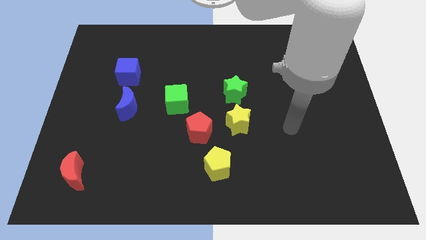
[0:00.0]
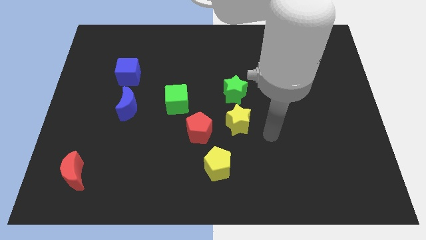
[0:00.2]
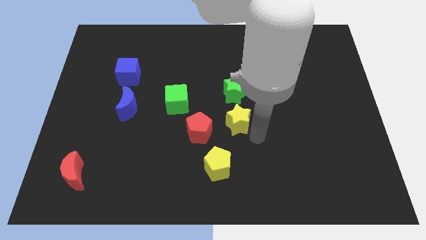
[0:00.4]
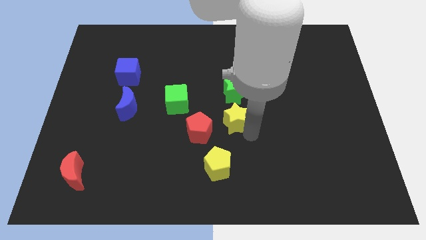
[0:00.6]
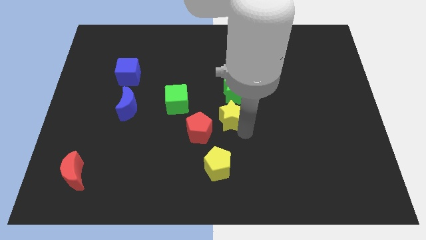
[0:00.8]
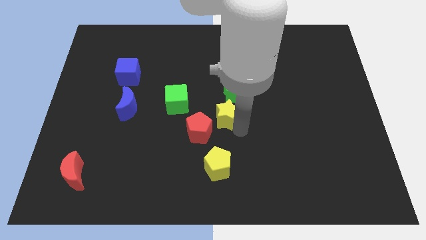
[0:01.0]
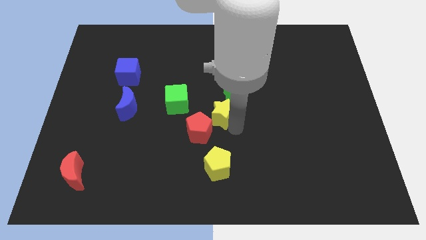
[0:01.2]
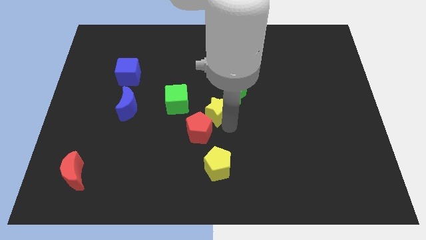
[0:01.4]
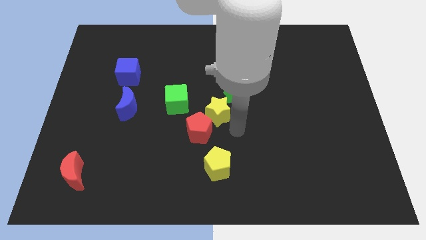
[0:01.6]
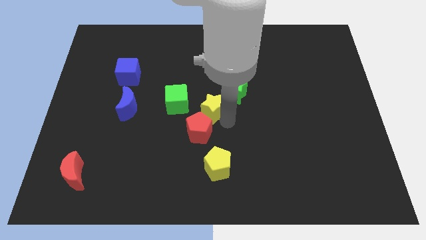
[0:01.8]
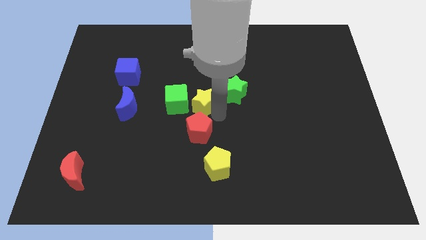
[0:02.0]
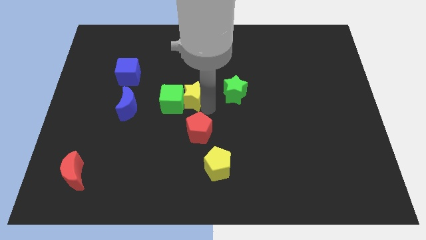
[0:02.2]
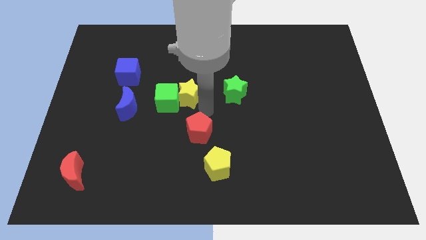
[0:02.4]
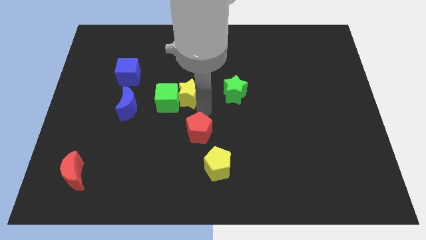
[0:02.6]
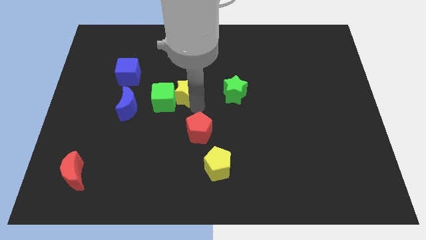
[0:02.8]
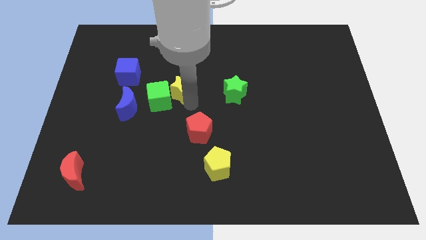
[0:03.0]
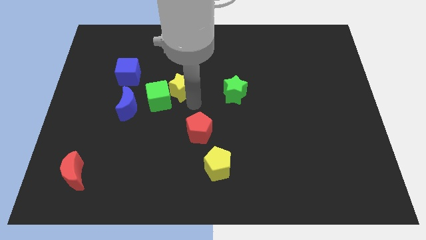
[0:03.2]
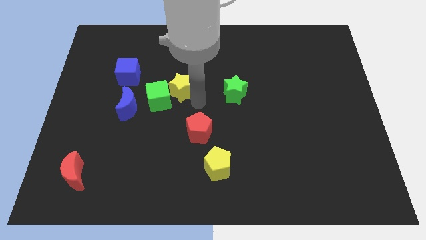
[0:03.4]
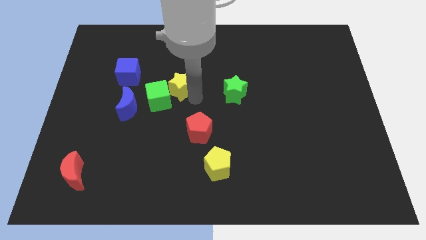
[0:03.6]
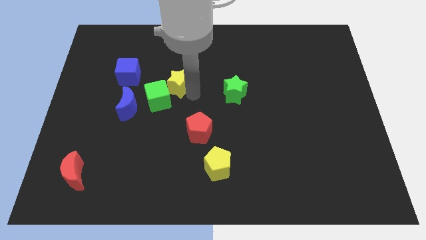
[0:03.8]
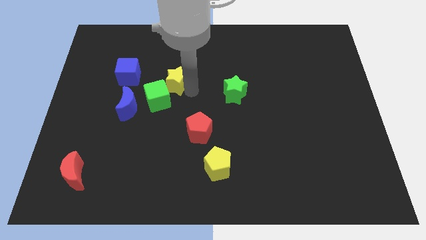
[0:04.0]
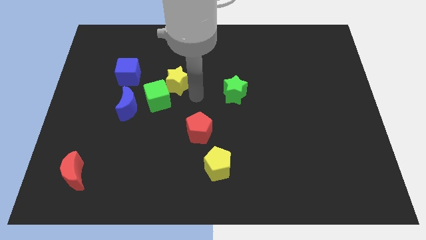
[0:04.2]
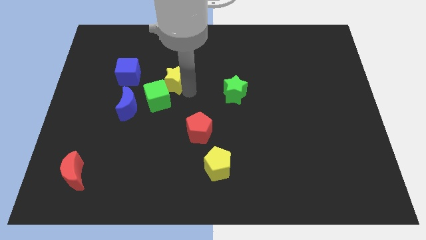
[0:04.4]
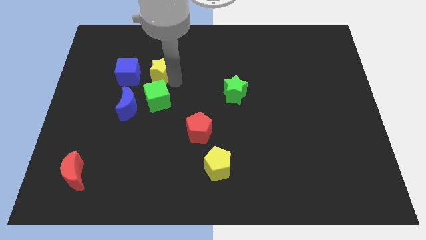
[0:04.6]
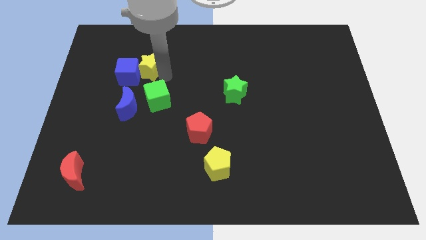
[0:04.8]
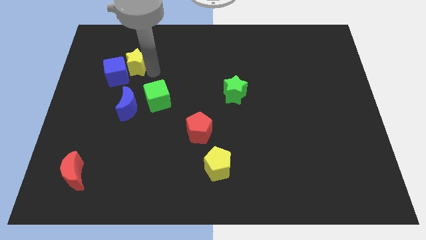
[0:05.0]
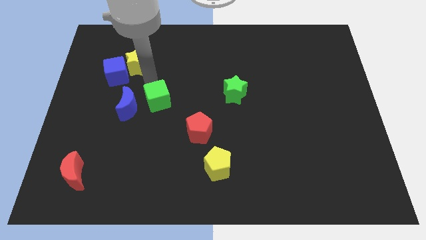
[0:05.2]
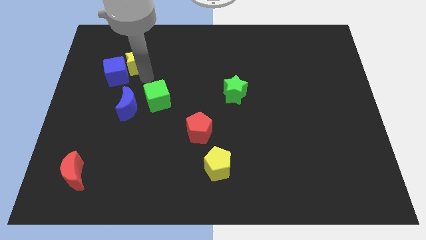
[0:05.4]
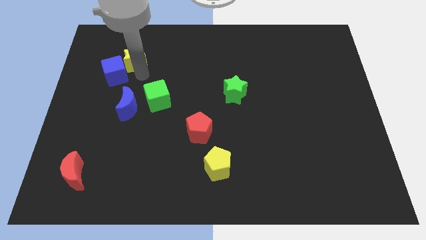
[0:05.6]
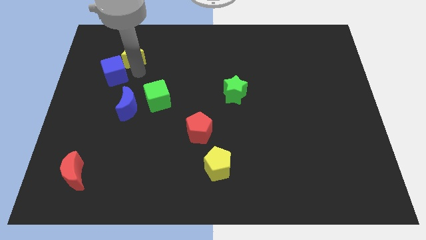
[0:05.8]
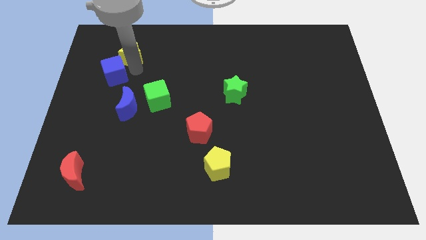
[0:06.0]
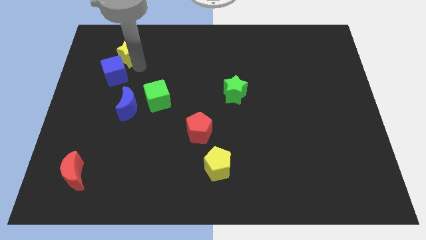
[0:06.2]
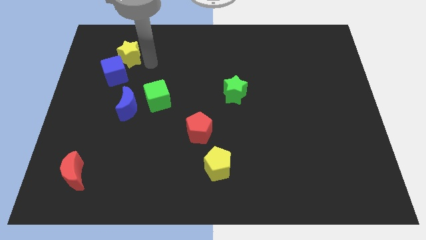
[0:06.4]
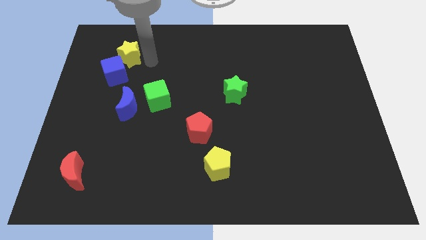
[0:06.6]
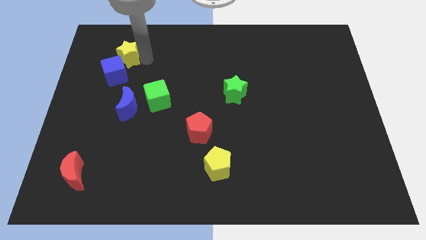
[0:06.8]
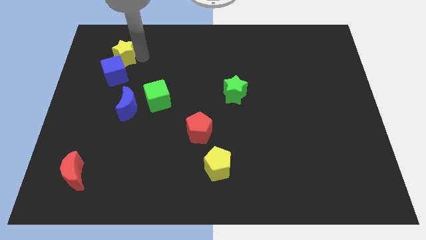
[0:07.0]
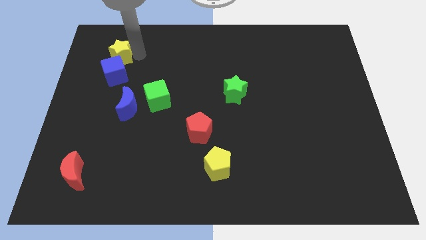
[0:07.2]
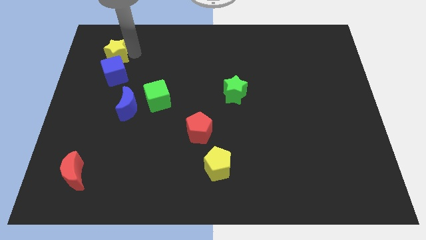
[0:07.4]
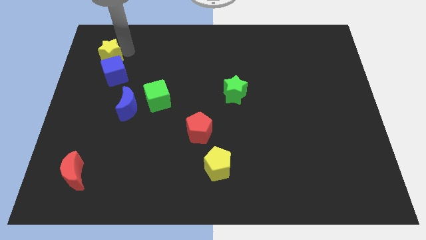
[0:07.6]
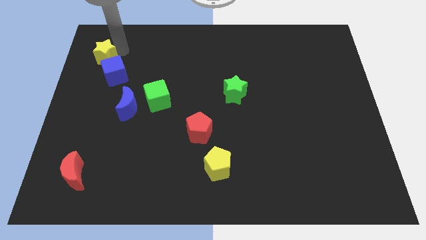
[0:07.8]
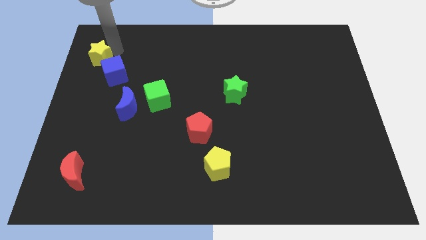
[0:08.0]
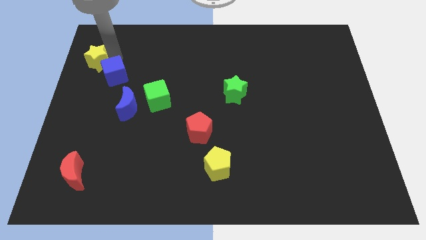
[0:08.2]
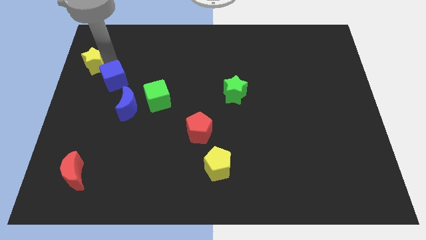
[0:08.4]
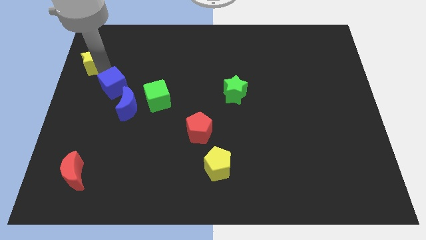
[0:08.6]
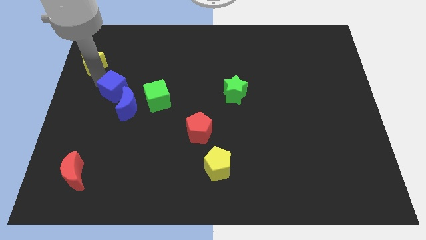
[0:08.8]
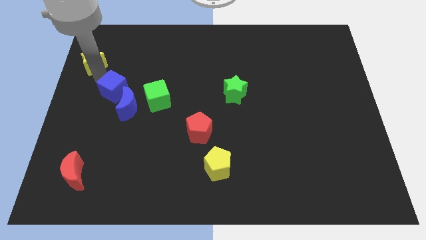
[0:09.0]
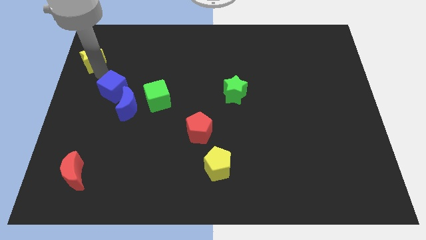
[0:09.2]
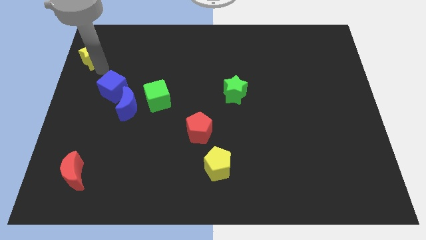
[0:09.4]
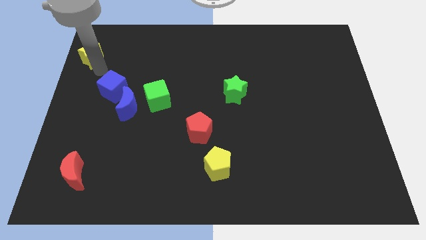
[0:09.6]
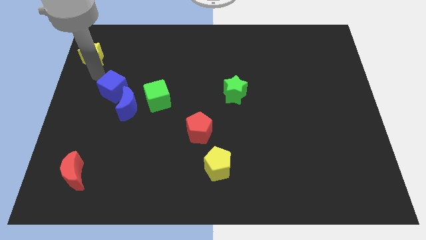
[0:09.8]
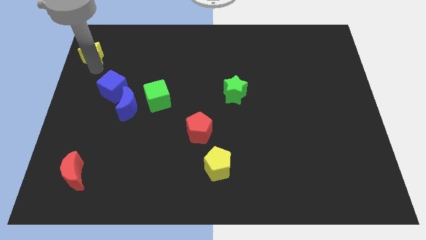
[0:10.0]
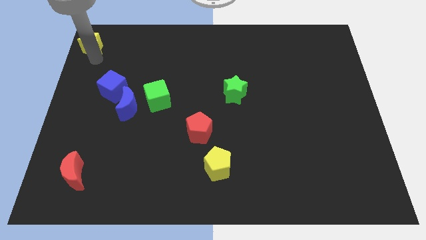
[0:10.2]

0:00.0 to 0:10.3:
put the yellow star to the top left of the board
